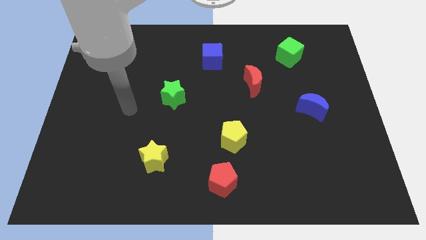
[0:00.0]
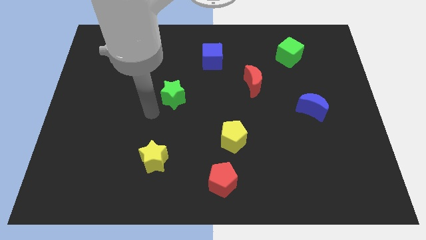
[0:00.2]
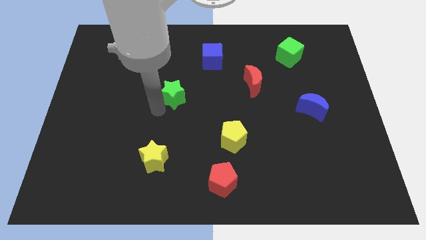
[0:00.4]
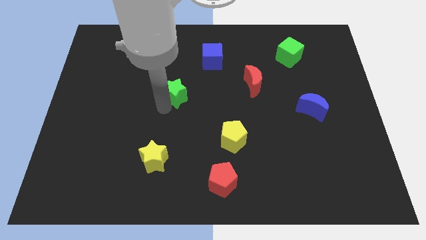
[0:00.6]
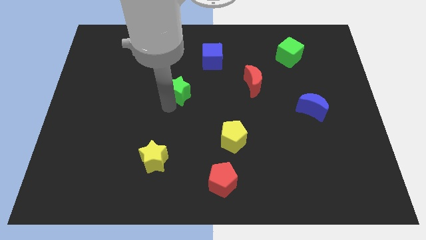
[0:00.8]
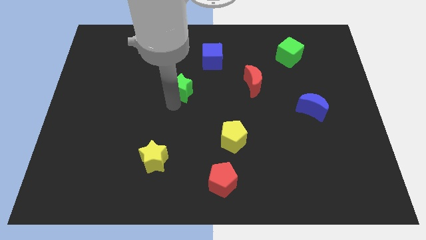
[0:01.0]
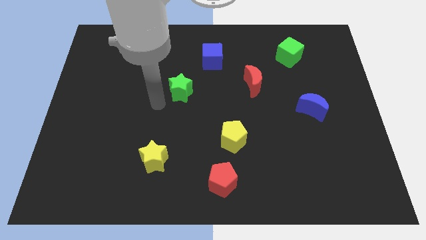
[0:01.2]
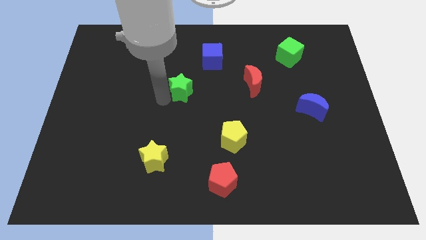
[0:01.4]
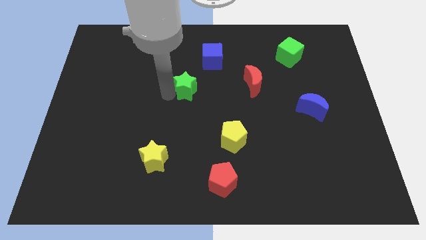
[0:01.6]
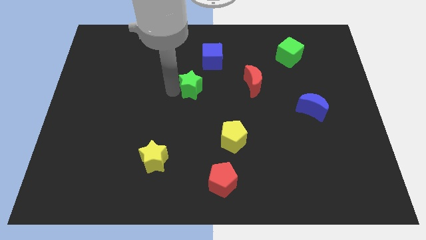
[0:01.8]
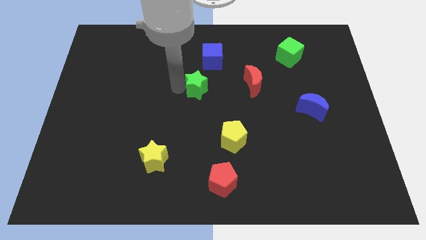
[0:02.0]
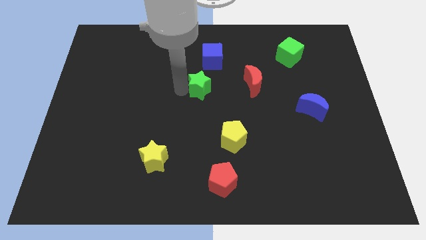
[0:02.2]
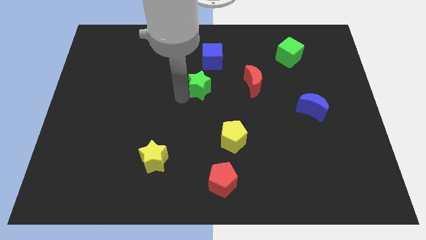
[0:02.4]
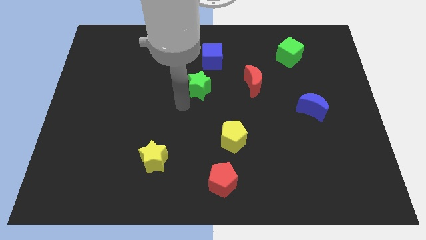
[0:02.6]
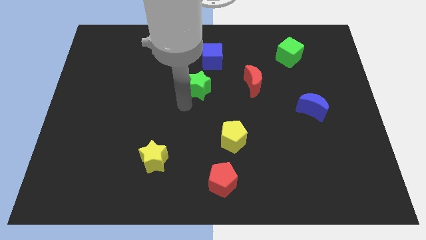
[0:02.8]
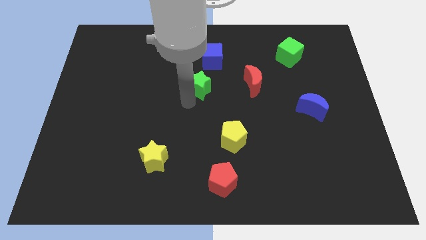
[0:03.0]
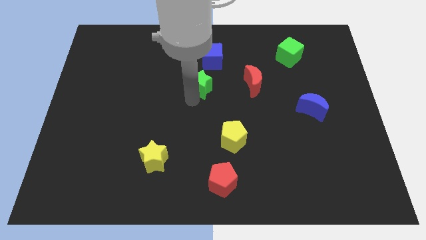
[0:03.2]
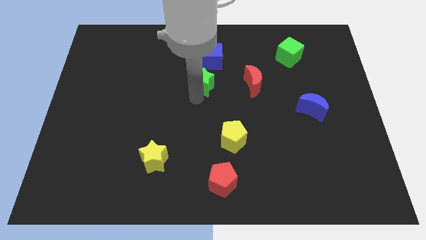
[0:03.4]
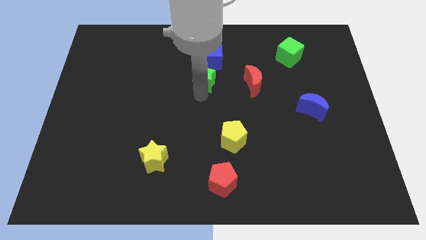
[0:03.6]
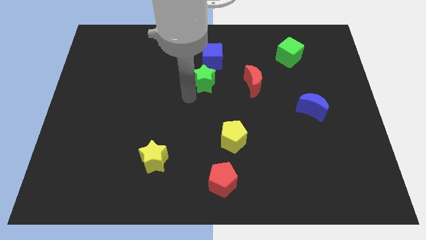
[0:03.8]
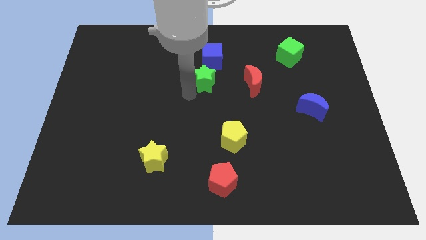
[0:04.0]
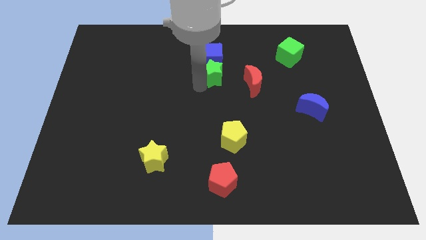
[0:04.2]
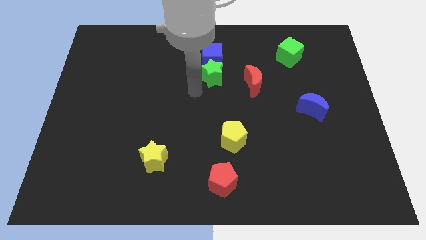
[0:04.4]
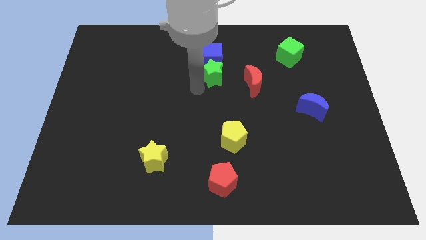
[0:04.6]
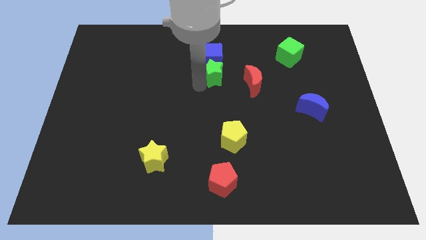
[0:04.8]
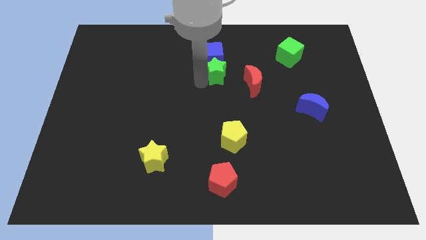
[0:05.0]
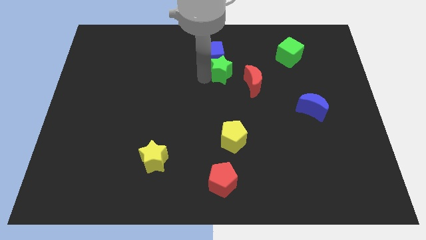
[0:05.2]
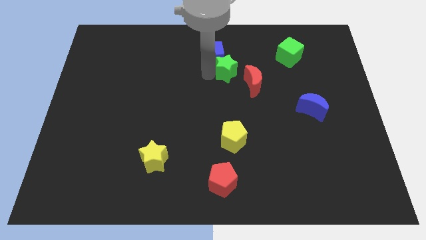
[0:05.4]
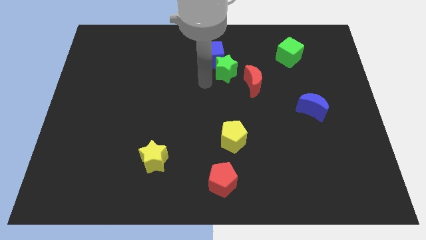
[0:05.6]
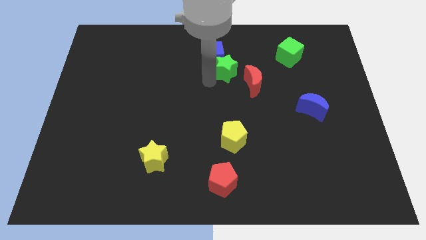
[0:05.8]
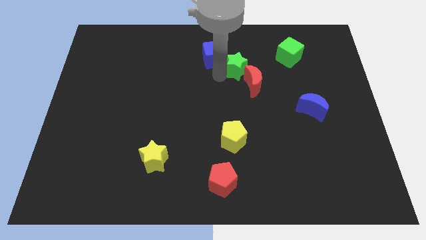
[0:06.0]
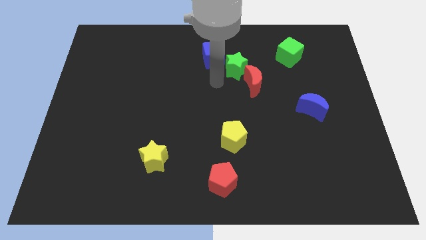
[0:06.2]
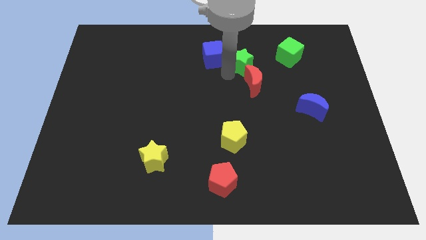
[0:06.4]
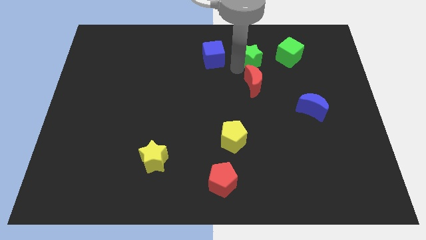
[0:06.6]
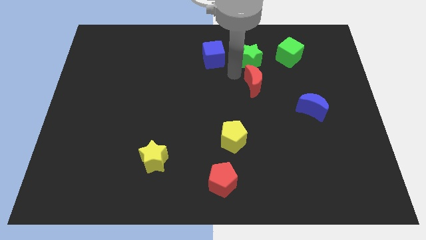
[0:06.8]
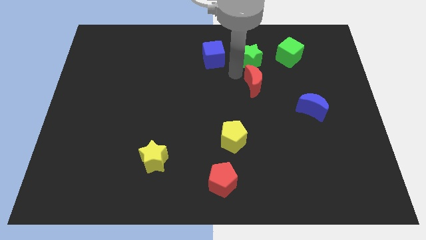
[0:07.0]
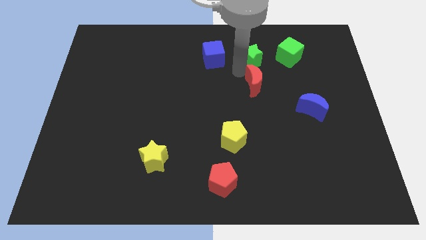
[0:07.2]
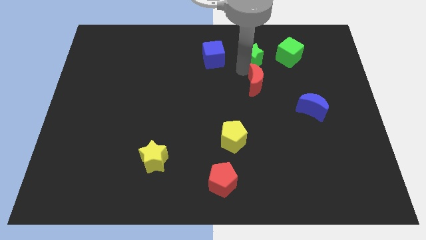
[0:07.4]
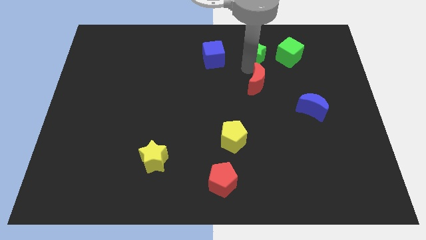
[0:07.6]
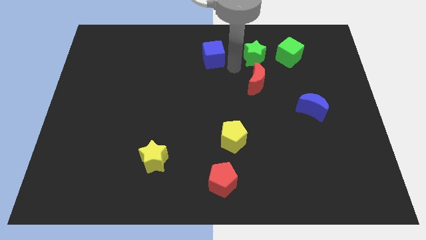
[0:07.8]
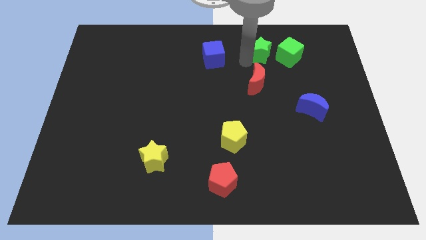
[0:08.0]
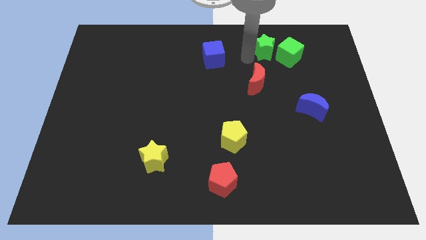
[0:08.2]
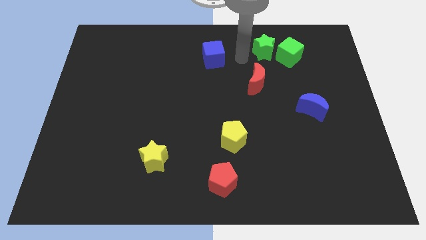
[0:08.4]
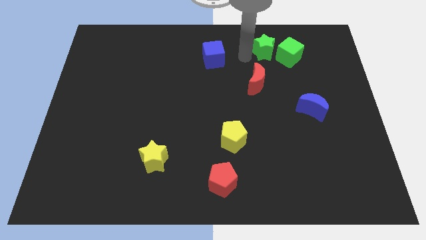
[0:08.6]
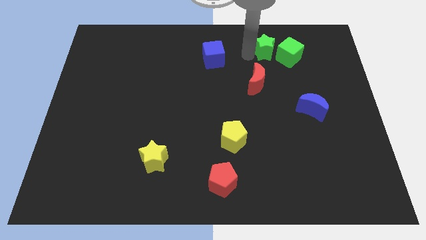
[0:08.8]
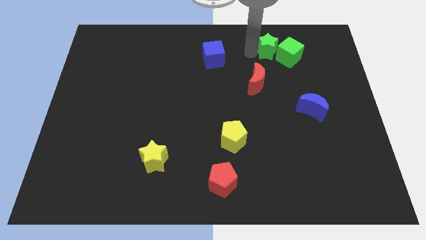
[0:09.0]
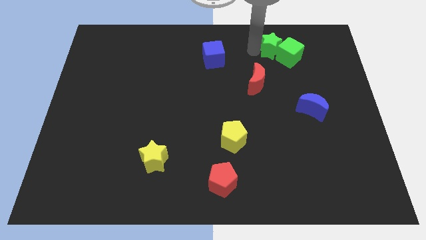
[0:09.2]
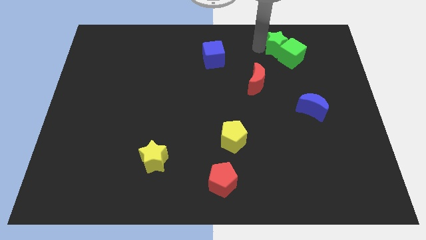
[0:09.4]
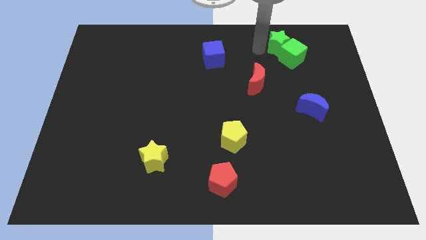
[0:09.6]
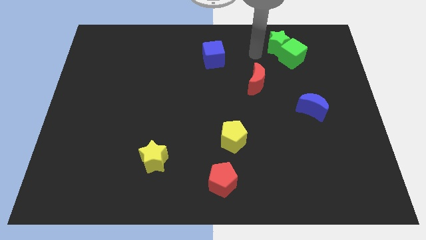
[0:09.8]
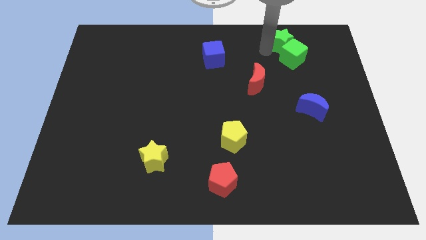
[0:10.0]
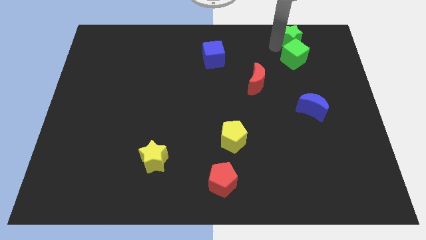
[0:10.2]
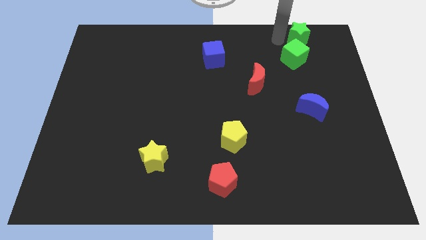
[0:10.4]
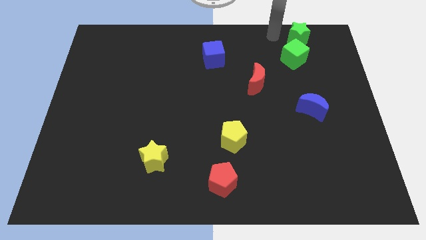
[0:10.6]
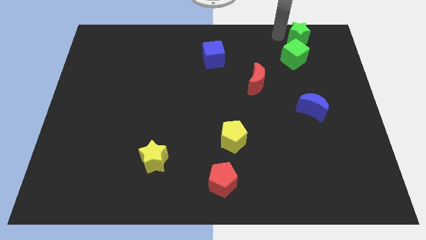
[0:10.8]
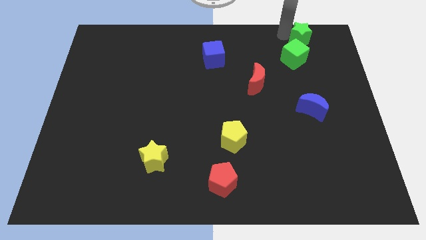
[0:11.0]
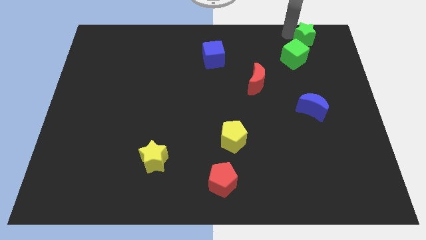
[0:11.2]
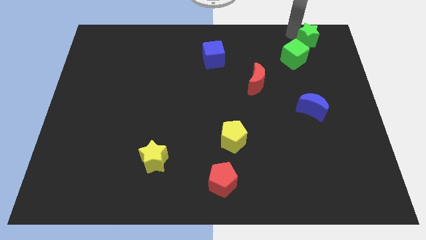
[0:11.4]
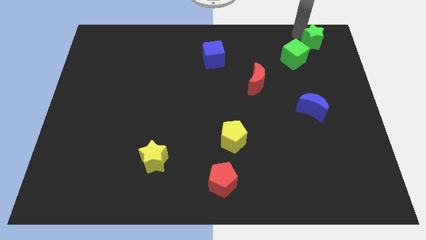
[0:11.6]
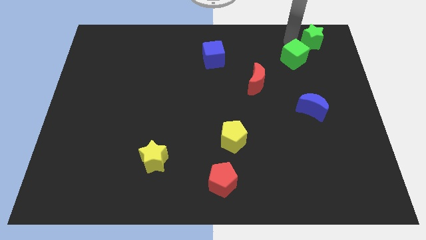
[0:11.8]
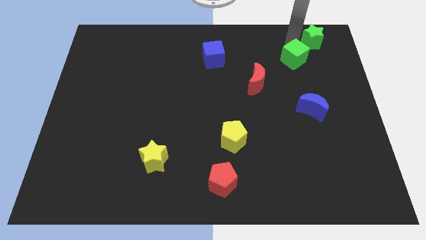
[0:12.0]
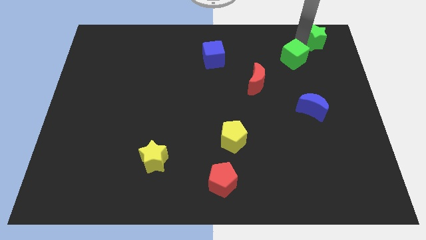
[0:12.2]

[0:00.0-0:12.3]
slide the green star to the top right
